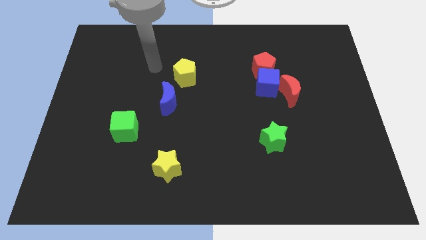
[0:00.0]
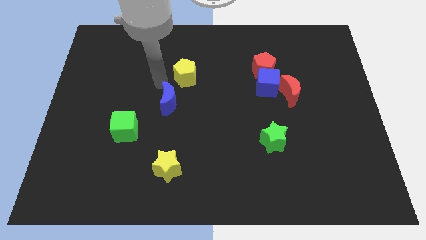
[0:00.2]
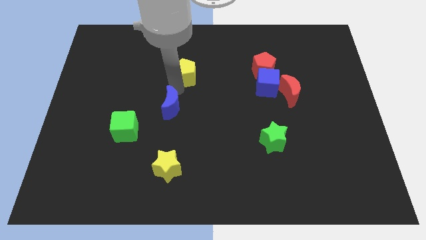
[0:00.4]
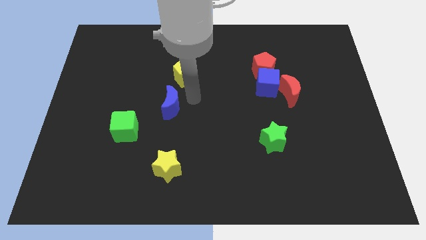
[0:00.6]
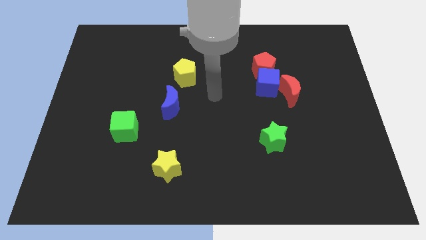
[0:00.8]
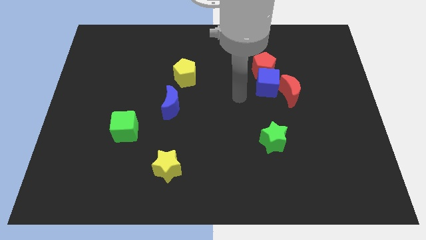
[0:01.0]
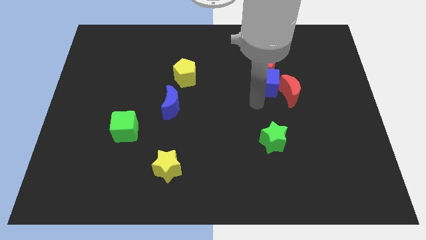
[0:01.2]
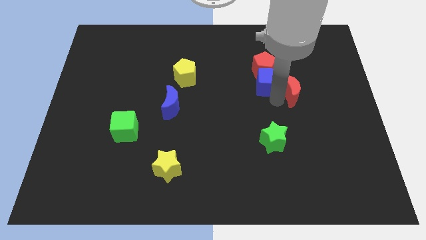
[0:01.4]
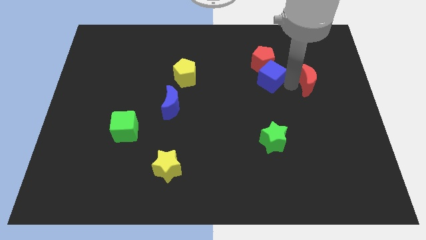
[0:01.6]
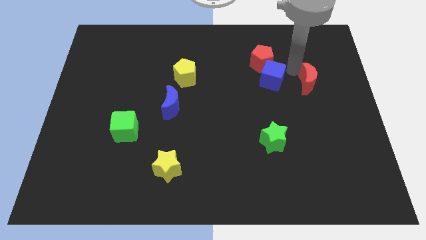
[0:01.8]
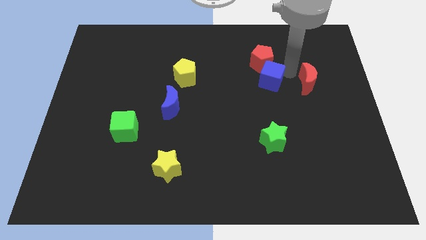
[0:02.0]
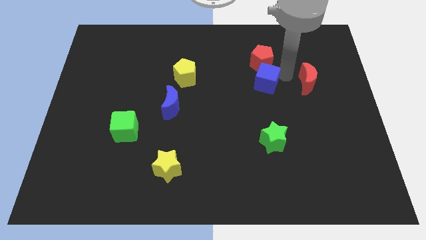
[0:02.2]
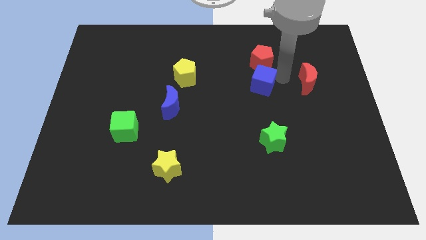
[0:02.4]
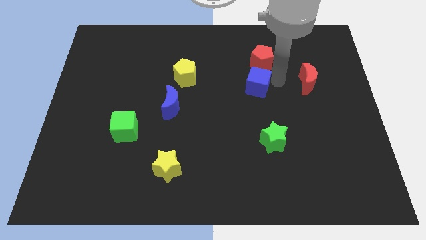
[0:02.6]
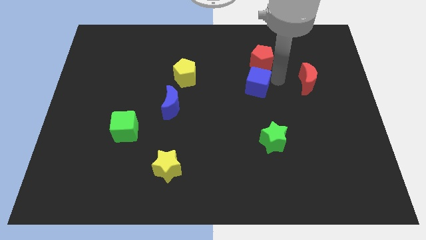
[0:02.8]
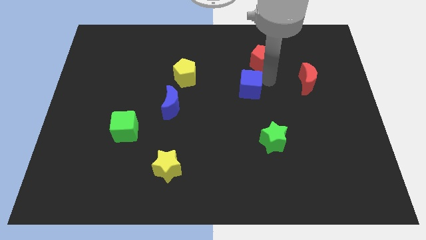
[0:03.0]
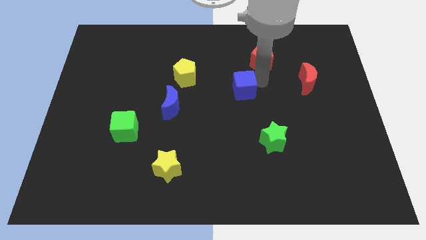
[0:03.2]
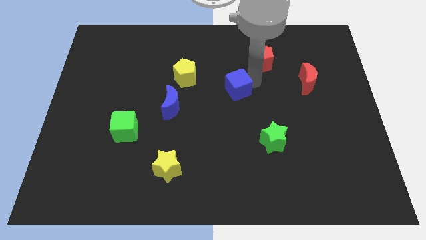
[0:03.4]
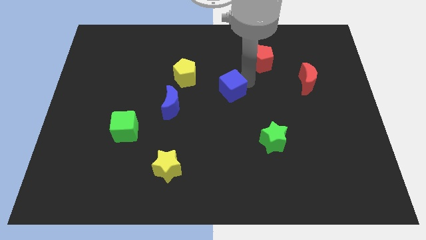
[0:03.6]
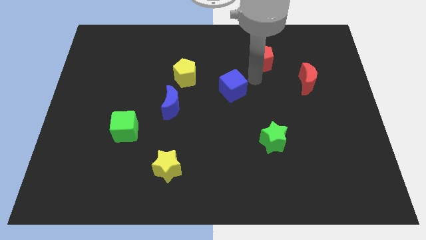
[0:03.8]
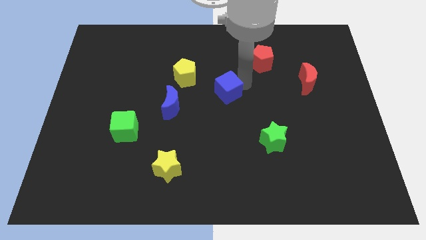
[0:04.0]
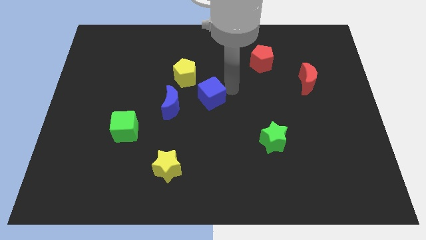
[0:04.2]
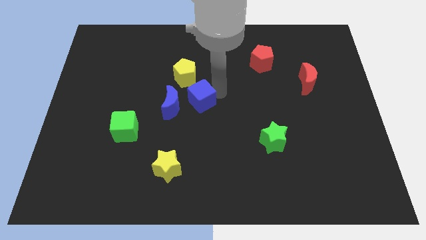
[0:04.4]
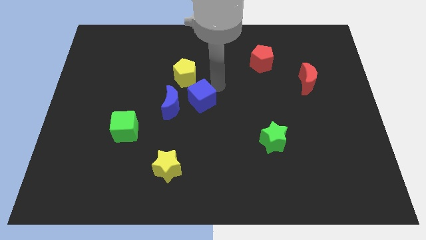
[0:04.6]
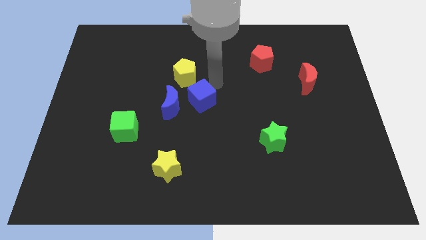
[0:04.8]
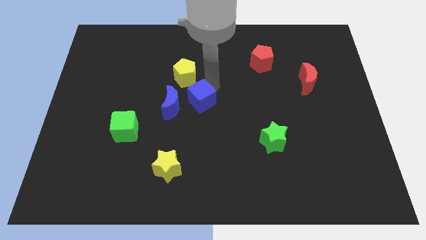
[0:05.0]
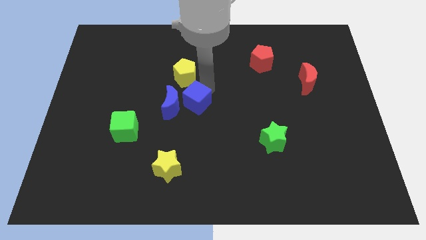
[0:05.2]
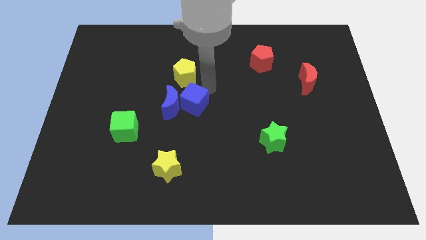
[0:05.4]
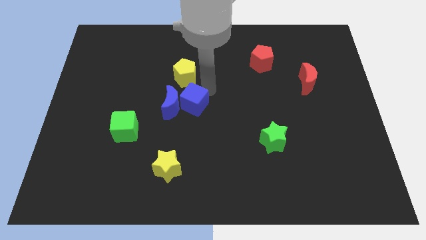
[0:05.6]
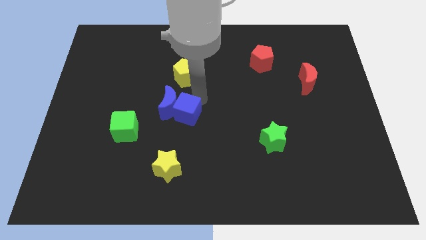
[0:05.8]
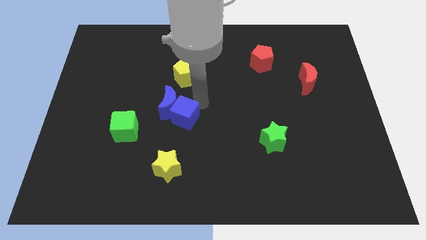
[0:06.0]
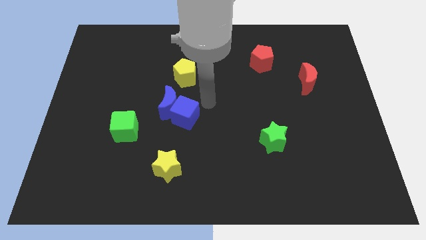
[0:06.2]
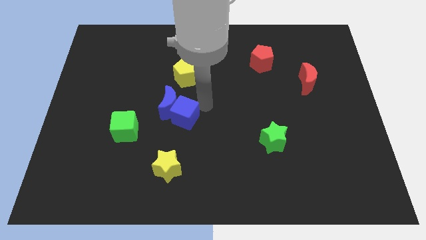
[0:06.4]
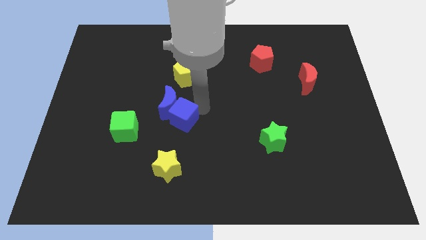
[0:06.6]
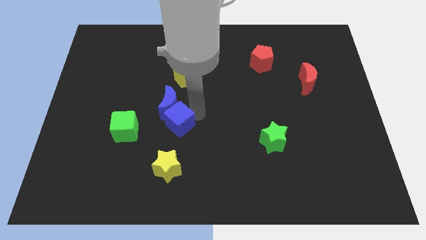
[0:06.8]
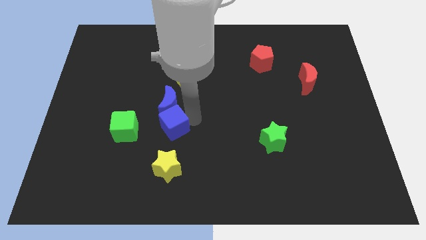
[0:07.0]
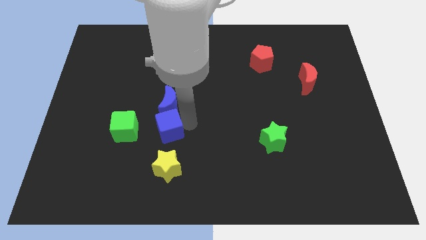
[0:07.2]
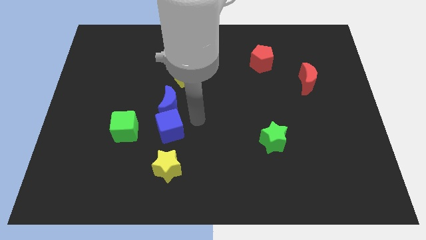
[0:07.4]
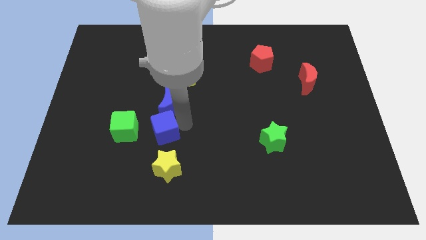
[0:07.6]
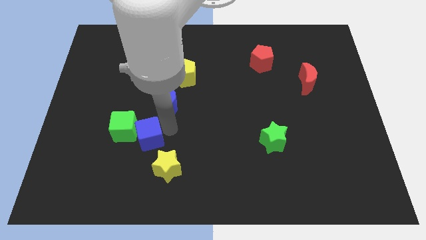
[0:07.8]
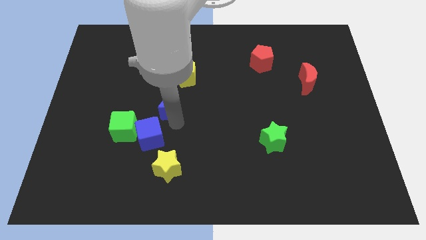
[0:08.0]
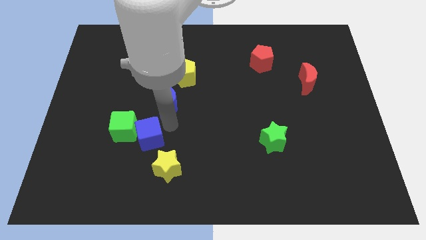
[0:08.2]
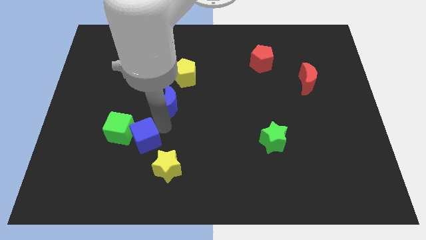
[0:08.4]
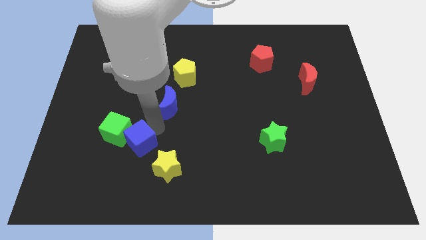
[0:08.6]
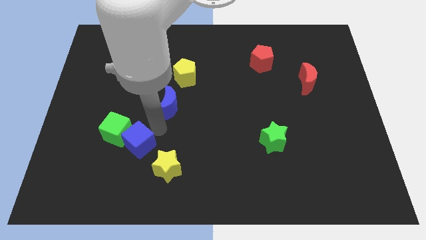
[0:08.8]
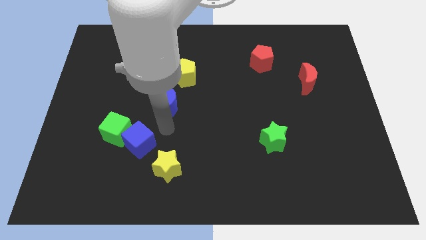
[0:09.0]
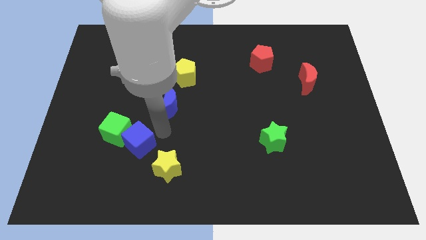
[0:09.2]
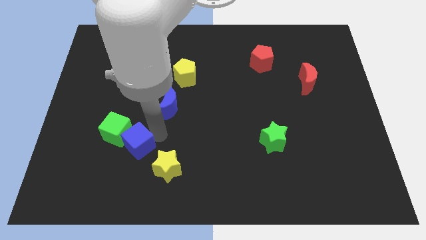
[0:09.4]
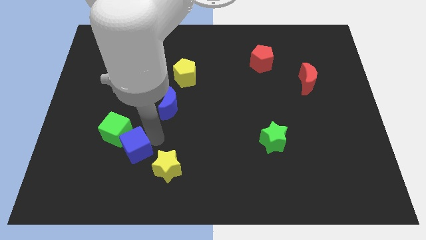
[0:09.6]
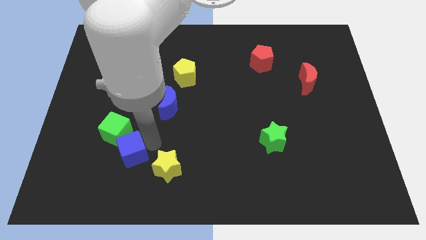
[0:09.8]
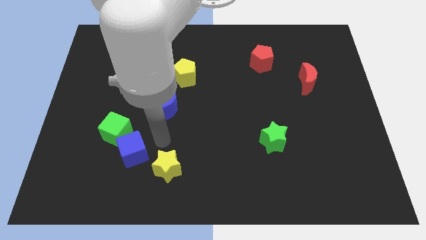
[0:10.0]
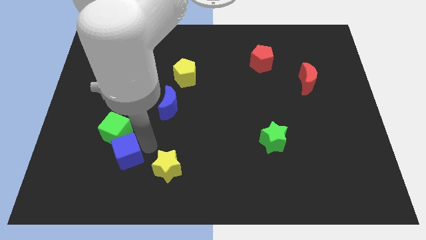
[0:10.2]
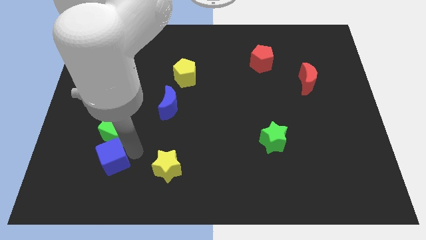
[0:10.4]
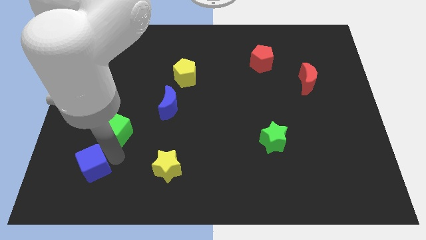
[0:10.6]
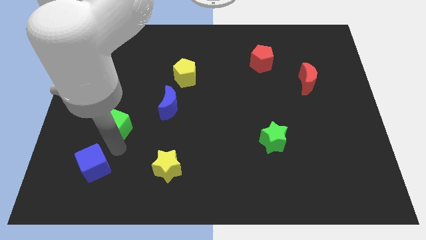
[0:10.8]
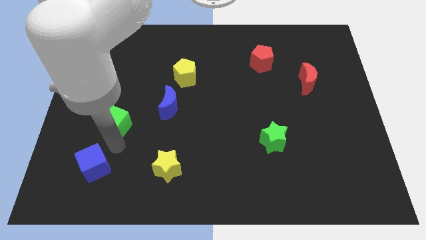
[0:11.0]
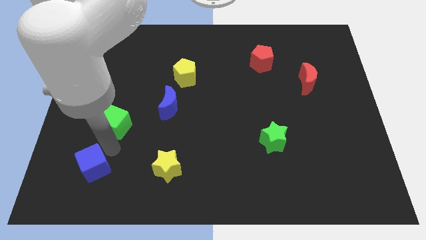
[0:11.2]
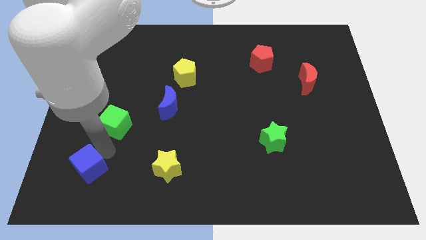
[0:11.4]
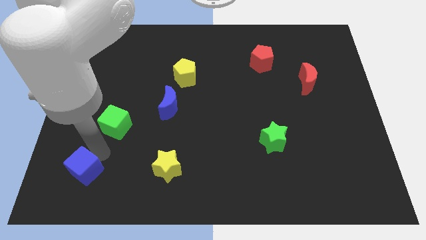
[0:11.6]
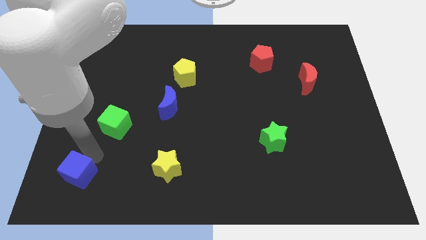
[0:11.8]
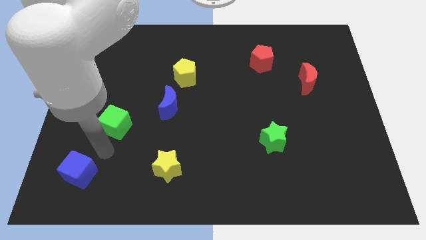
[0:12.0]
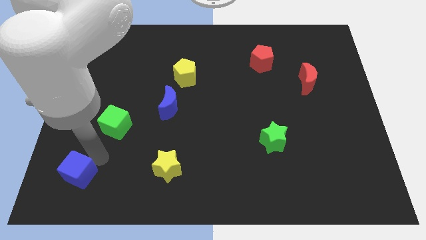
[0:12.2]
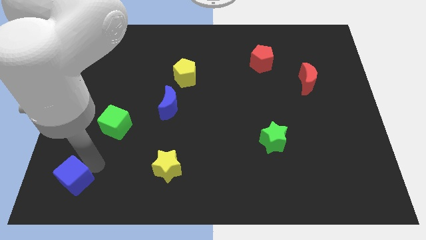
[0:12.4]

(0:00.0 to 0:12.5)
slide the blue cube to the bottom left corner

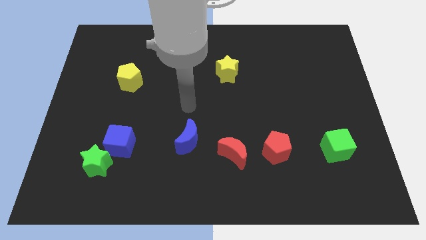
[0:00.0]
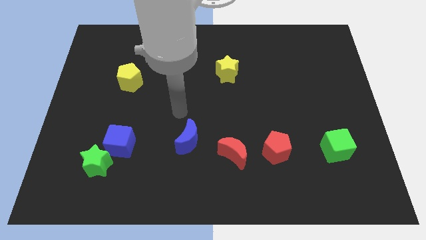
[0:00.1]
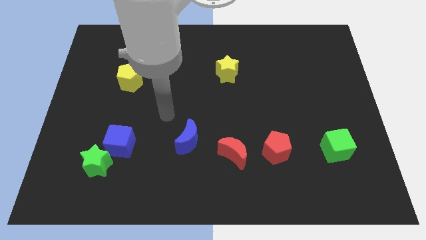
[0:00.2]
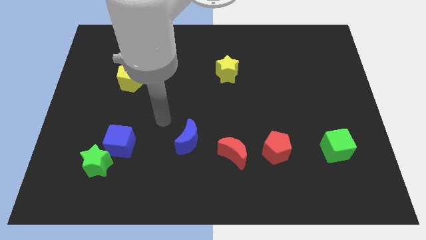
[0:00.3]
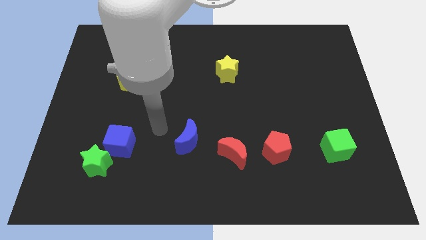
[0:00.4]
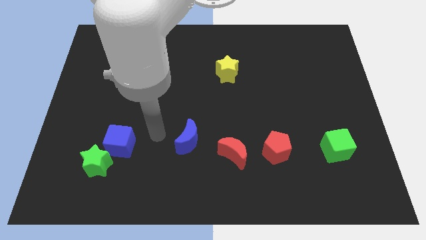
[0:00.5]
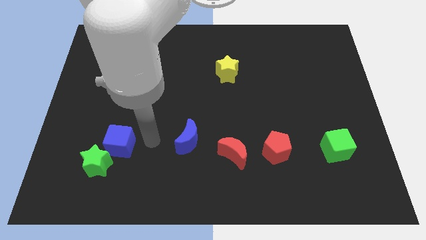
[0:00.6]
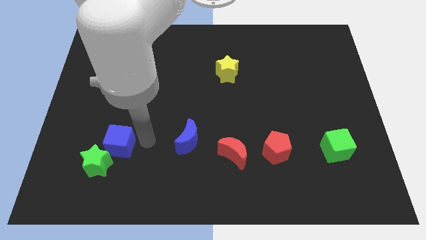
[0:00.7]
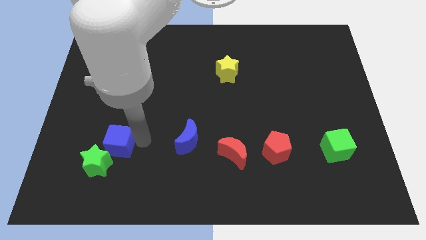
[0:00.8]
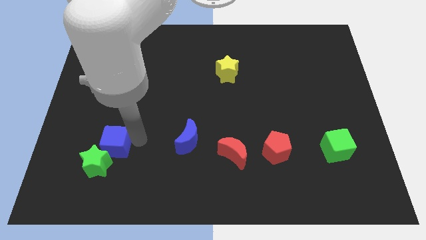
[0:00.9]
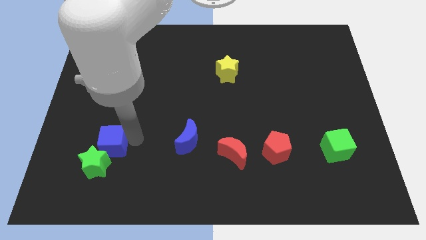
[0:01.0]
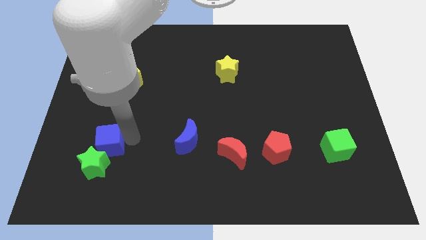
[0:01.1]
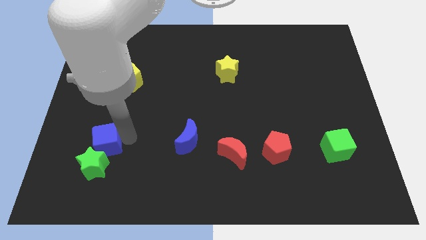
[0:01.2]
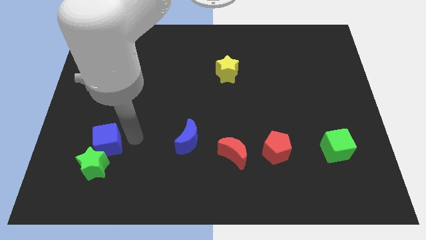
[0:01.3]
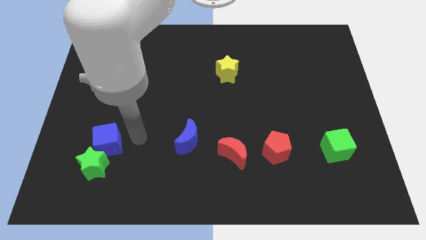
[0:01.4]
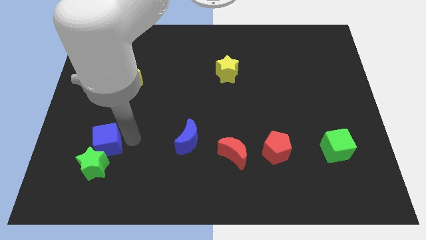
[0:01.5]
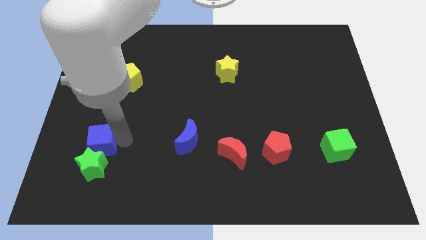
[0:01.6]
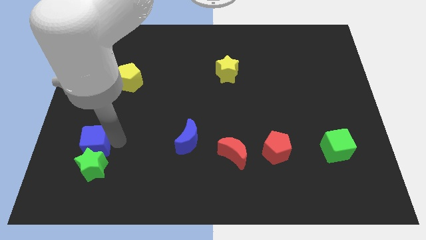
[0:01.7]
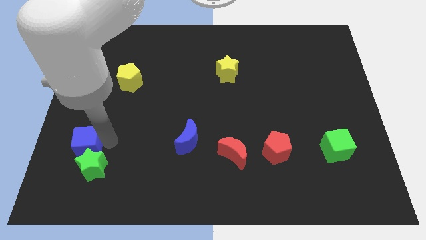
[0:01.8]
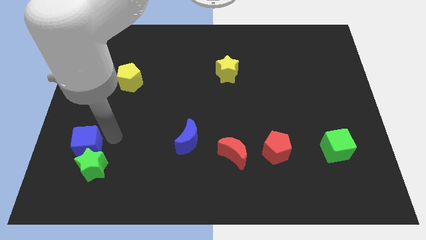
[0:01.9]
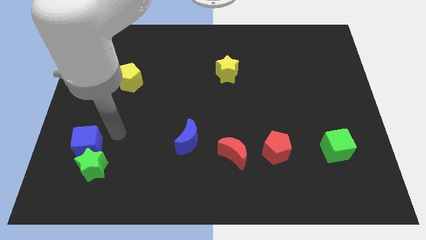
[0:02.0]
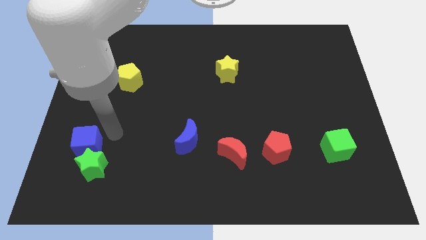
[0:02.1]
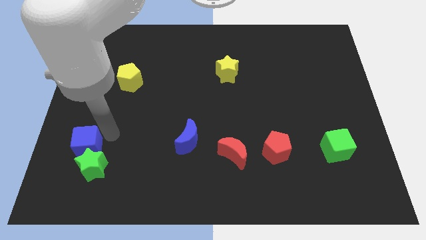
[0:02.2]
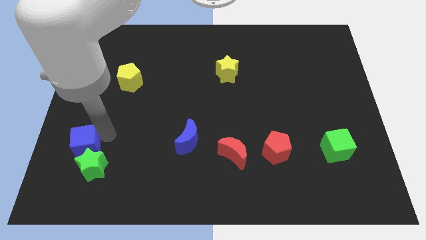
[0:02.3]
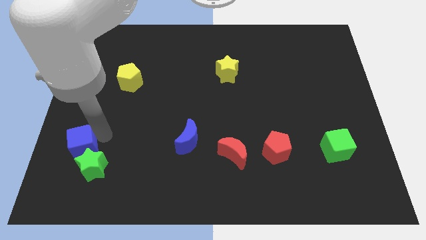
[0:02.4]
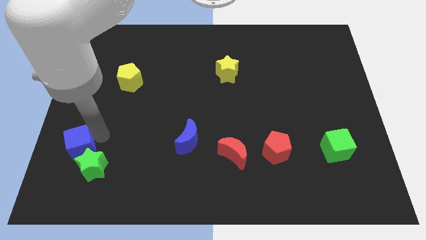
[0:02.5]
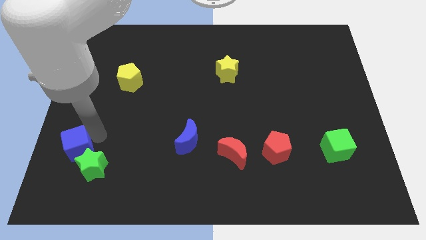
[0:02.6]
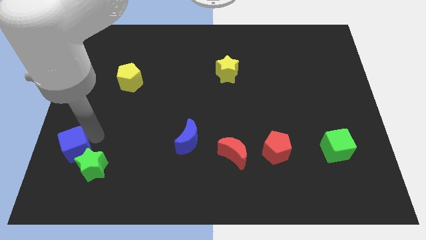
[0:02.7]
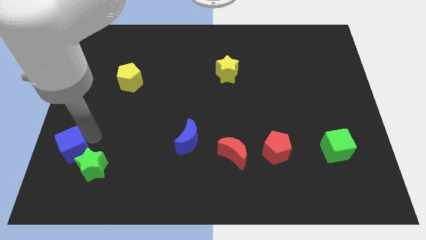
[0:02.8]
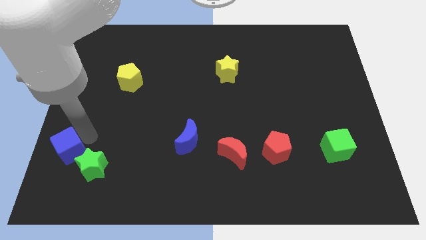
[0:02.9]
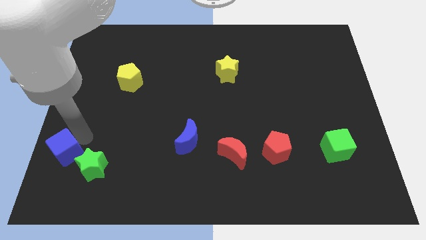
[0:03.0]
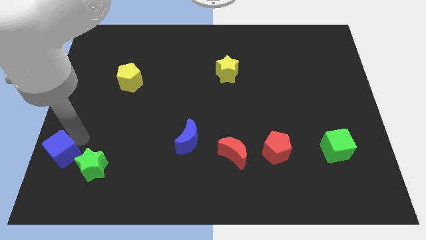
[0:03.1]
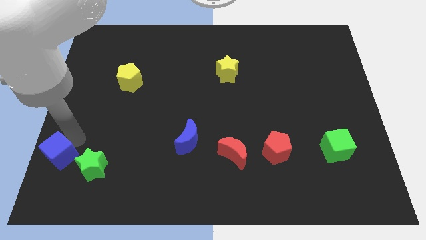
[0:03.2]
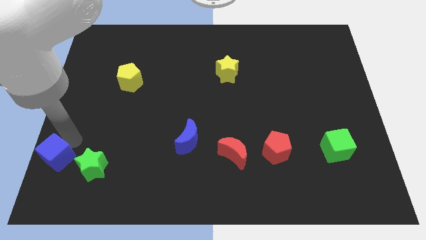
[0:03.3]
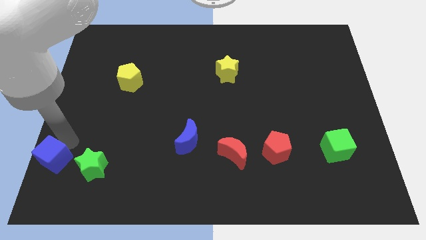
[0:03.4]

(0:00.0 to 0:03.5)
put the blue cube to the lower left corner
